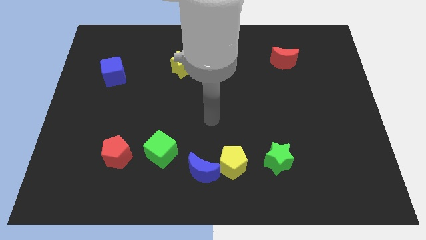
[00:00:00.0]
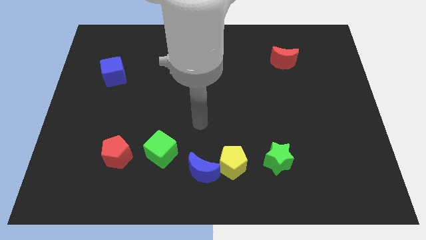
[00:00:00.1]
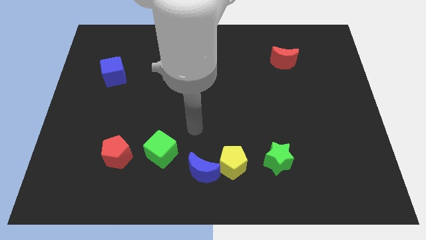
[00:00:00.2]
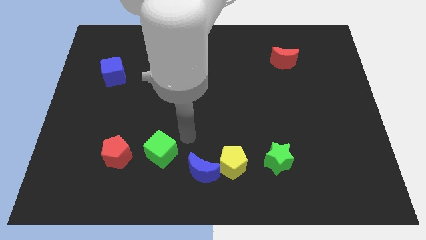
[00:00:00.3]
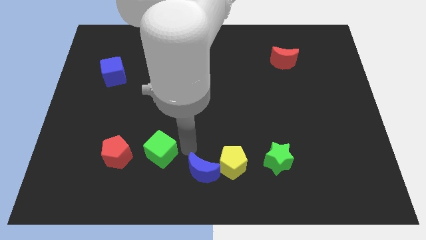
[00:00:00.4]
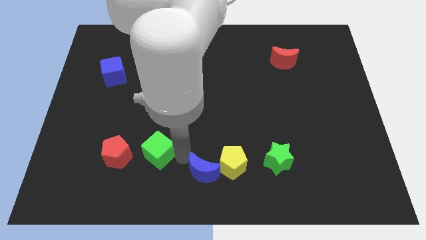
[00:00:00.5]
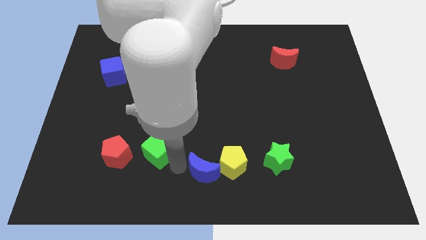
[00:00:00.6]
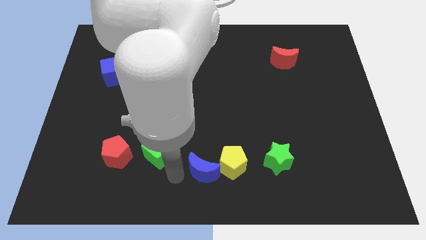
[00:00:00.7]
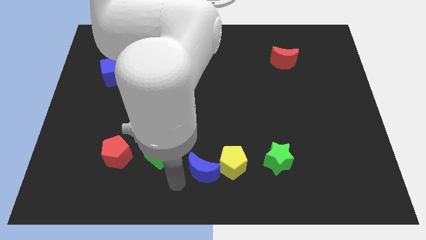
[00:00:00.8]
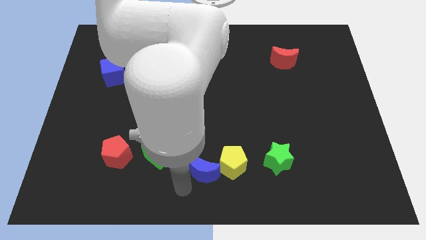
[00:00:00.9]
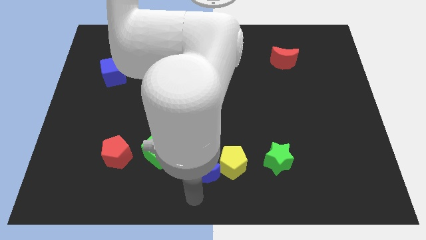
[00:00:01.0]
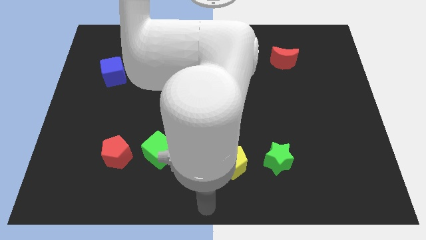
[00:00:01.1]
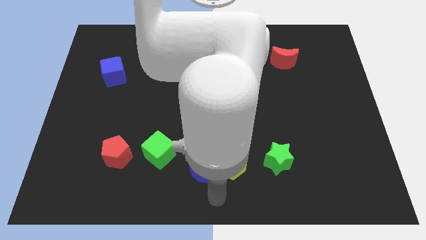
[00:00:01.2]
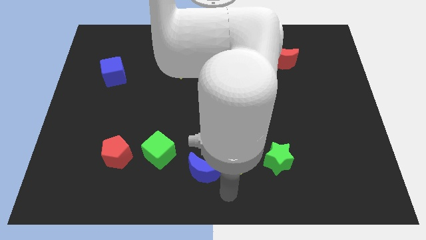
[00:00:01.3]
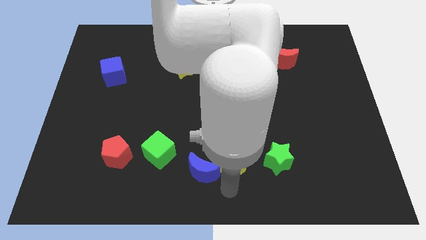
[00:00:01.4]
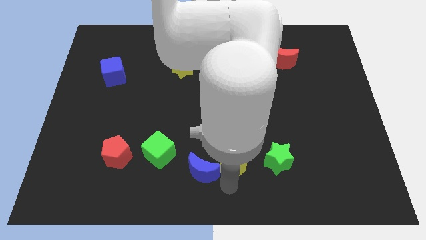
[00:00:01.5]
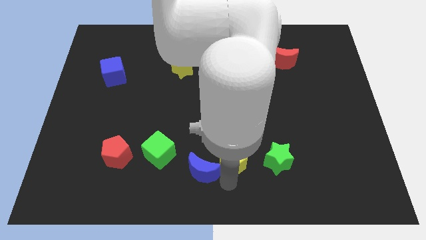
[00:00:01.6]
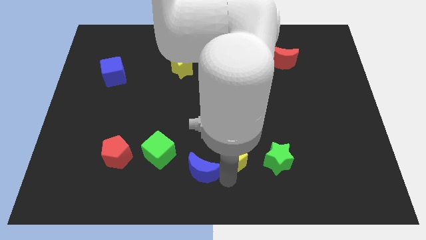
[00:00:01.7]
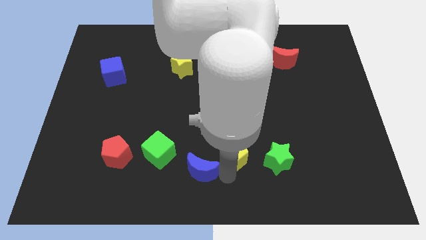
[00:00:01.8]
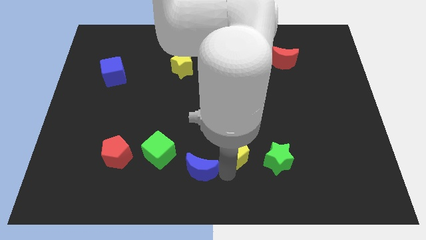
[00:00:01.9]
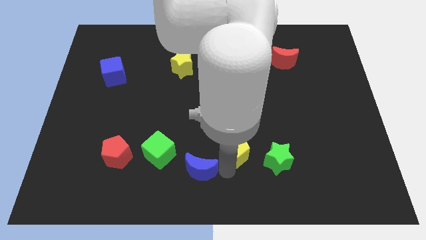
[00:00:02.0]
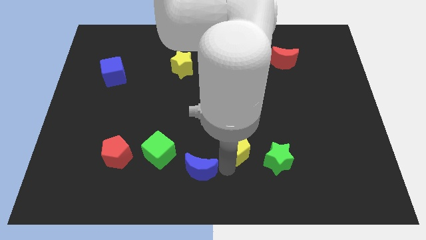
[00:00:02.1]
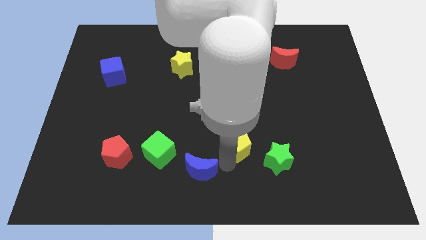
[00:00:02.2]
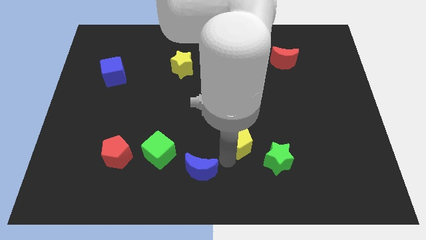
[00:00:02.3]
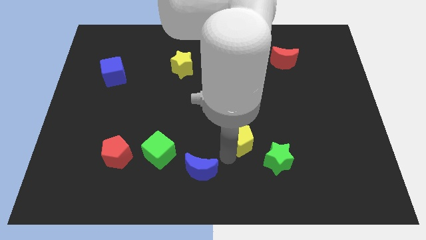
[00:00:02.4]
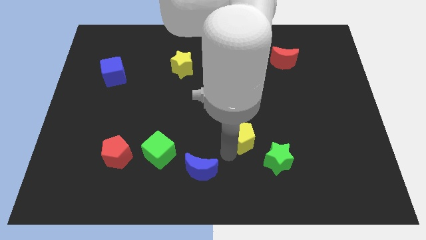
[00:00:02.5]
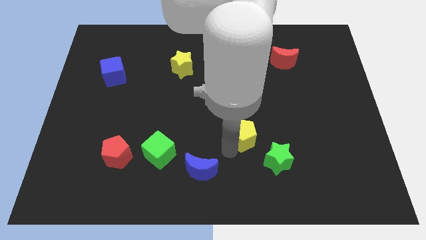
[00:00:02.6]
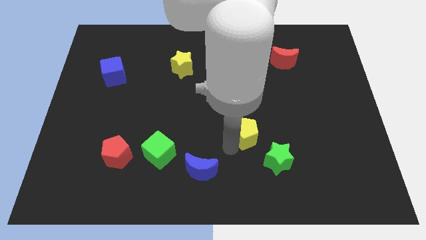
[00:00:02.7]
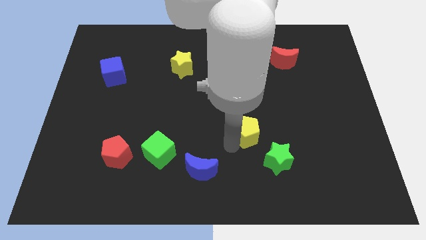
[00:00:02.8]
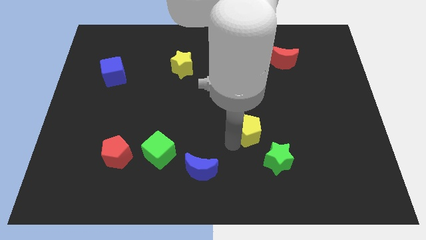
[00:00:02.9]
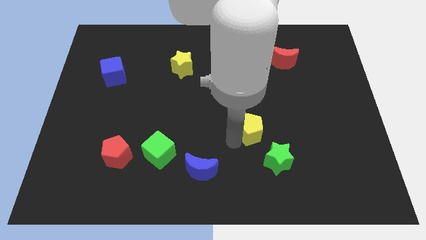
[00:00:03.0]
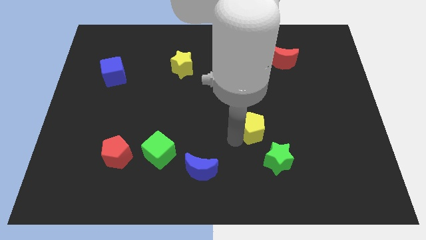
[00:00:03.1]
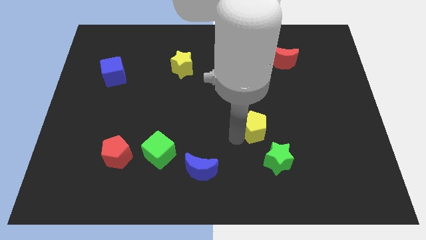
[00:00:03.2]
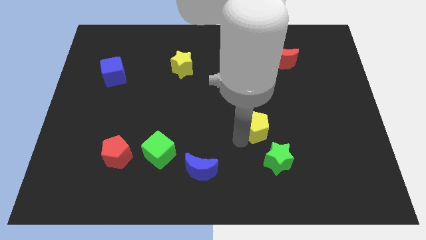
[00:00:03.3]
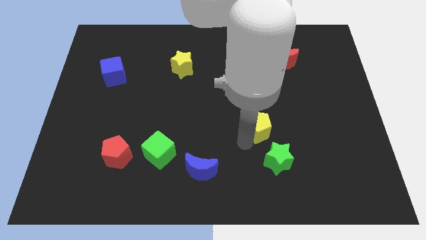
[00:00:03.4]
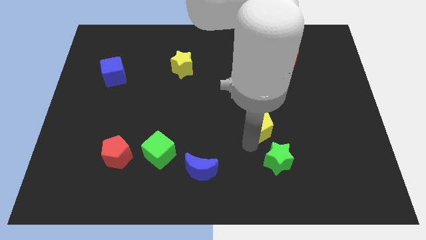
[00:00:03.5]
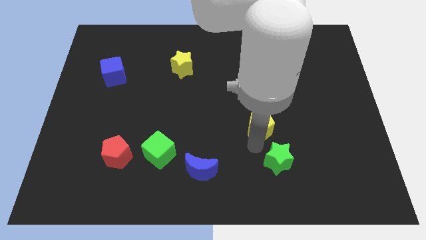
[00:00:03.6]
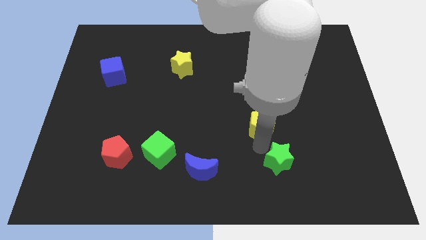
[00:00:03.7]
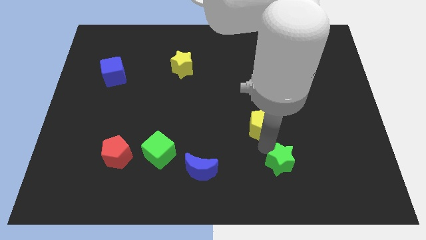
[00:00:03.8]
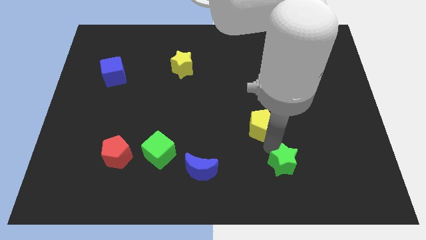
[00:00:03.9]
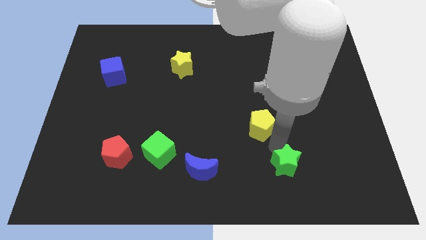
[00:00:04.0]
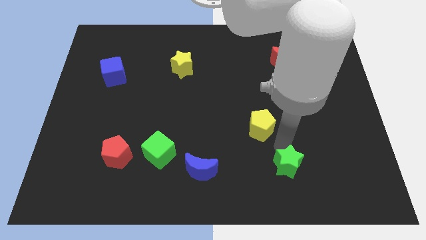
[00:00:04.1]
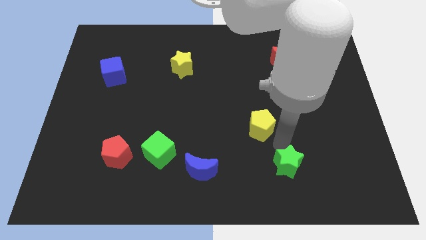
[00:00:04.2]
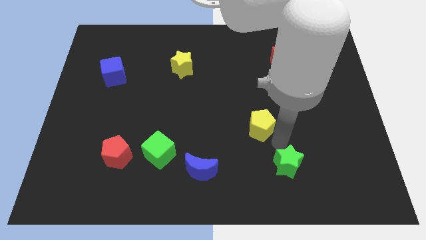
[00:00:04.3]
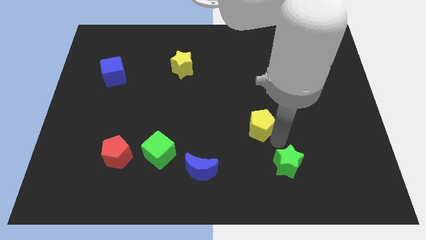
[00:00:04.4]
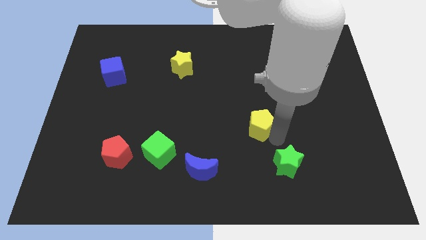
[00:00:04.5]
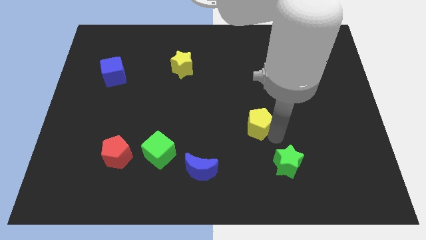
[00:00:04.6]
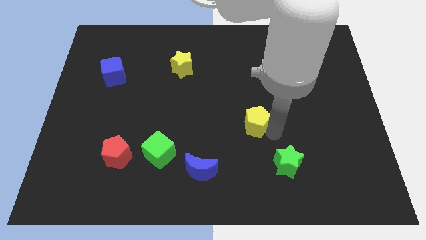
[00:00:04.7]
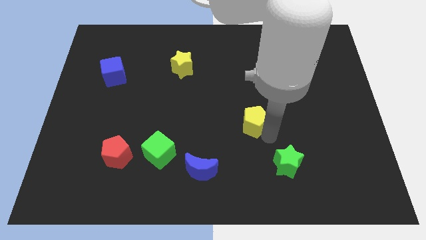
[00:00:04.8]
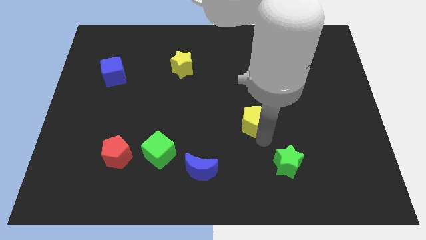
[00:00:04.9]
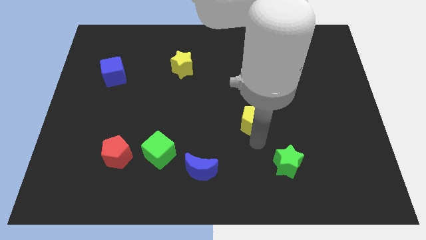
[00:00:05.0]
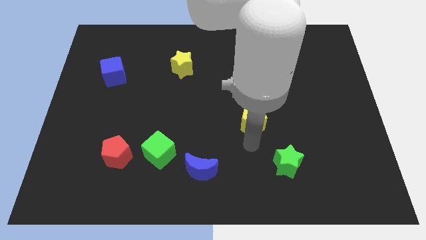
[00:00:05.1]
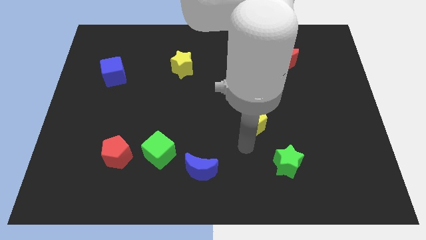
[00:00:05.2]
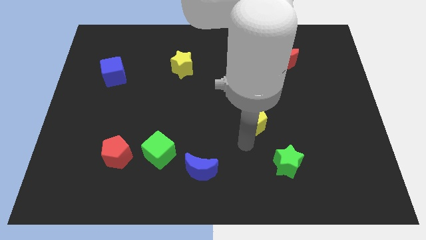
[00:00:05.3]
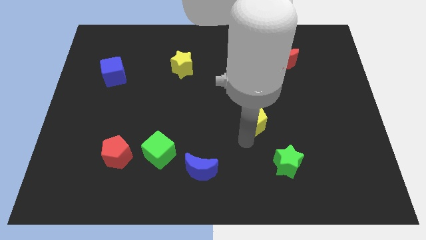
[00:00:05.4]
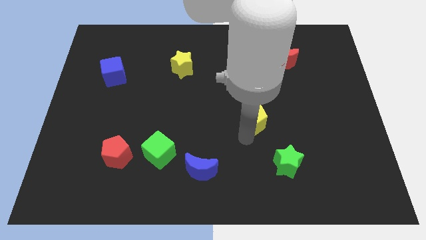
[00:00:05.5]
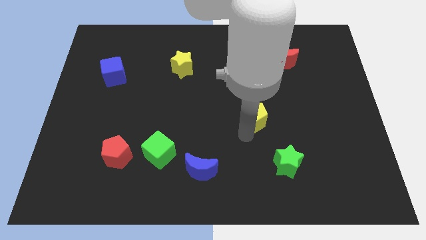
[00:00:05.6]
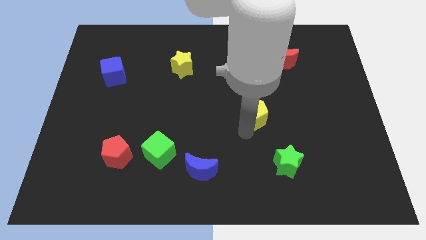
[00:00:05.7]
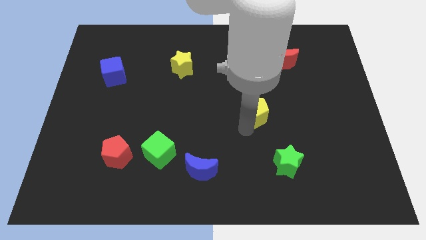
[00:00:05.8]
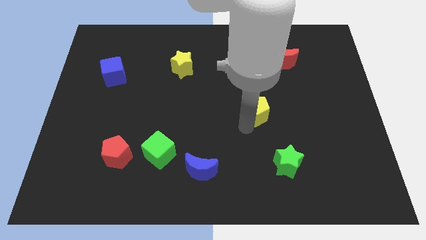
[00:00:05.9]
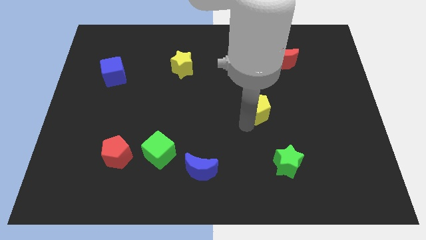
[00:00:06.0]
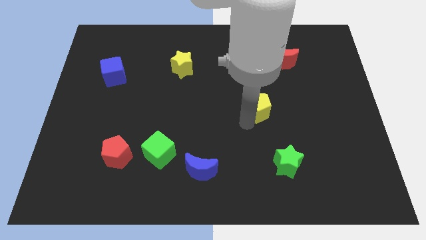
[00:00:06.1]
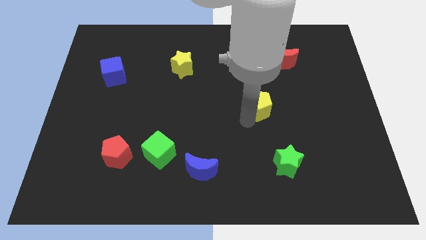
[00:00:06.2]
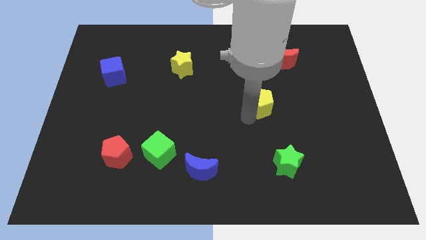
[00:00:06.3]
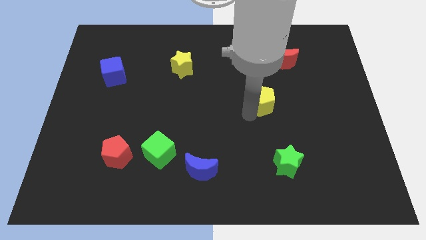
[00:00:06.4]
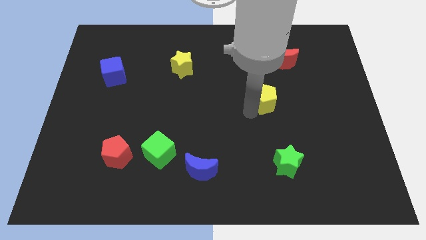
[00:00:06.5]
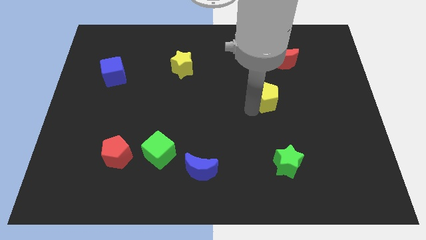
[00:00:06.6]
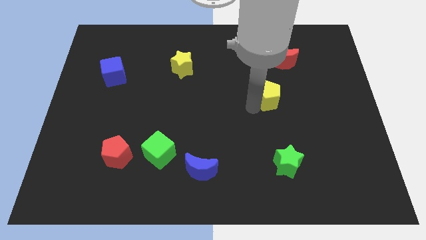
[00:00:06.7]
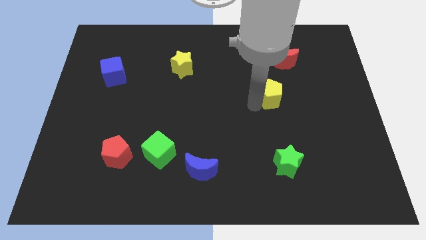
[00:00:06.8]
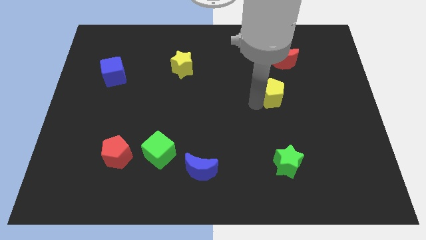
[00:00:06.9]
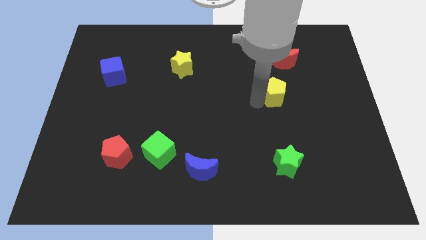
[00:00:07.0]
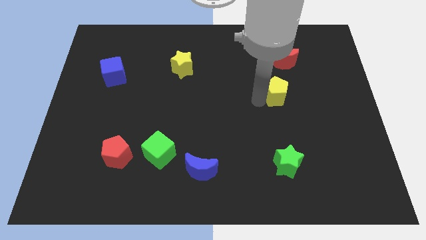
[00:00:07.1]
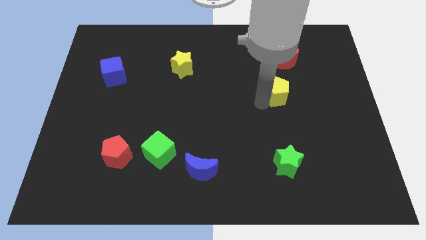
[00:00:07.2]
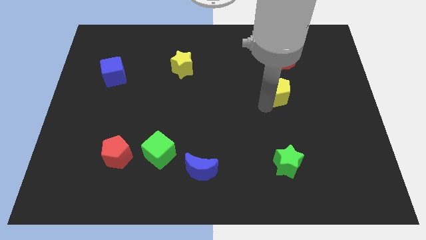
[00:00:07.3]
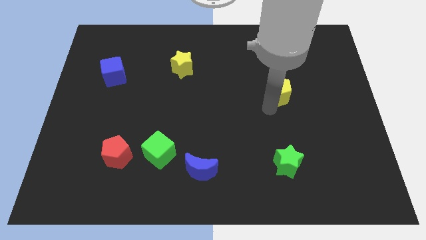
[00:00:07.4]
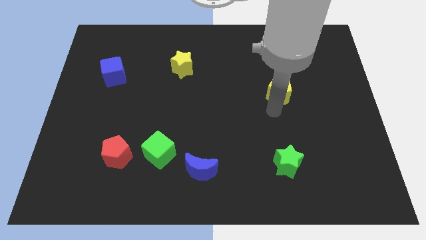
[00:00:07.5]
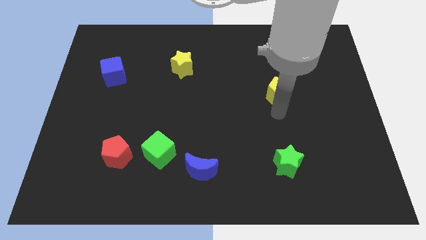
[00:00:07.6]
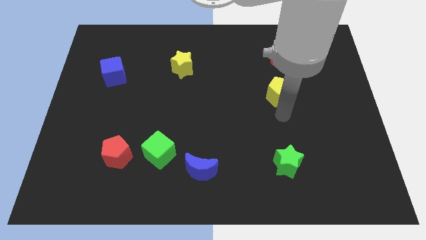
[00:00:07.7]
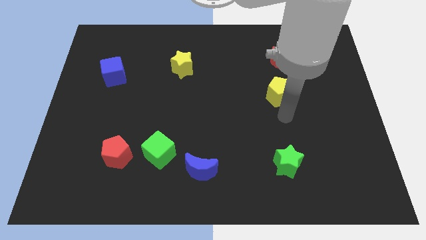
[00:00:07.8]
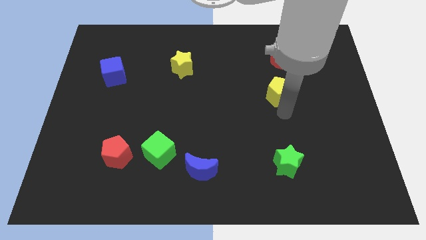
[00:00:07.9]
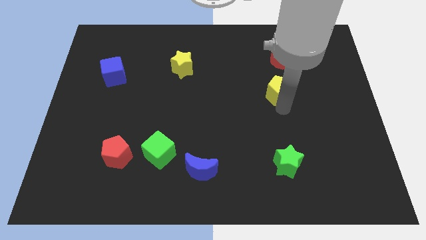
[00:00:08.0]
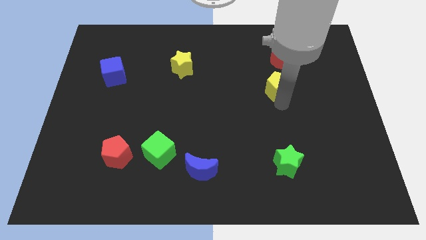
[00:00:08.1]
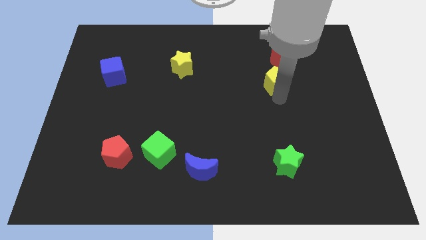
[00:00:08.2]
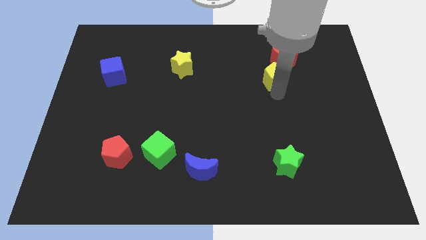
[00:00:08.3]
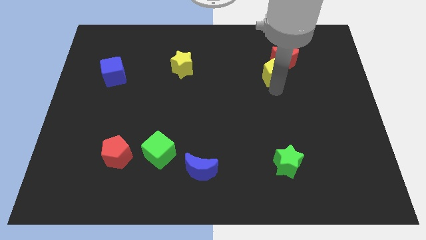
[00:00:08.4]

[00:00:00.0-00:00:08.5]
push the yellow pentagon to the red moon
